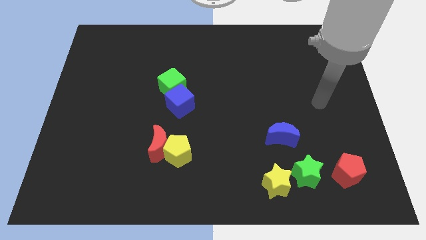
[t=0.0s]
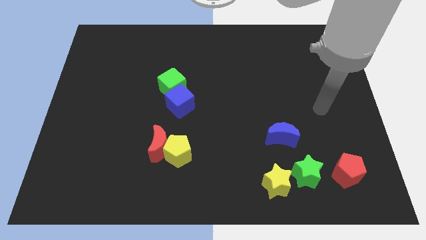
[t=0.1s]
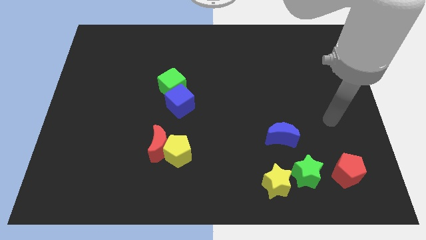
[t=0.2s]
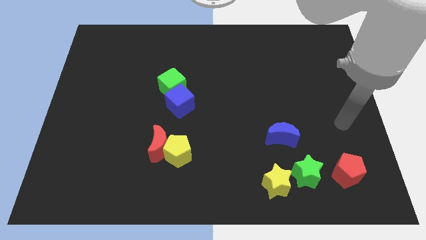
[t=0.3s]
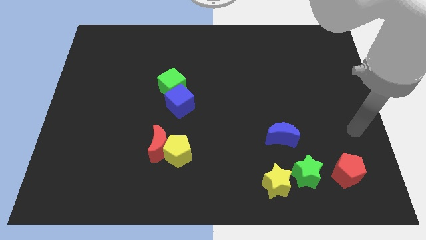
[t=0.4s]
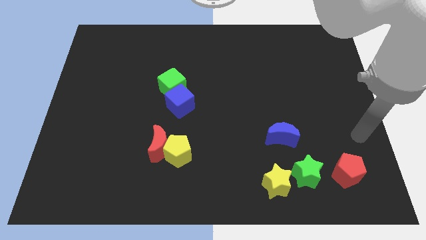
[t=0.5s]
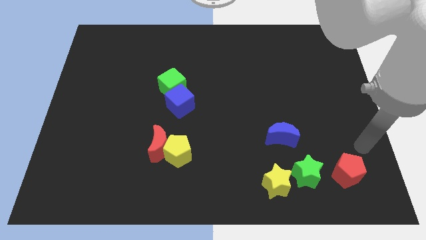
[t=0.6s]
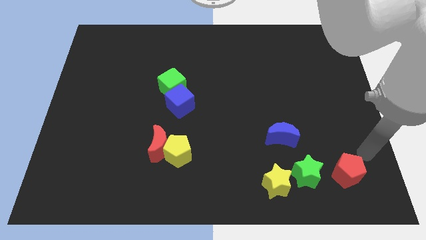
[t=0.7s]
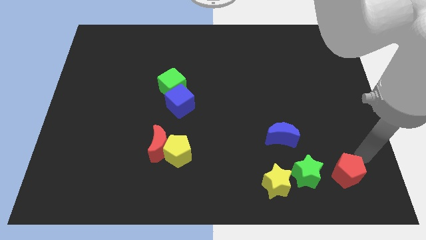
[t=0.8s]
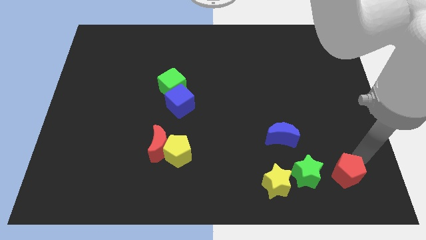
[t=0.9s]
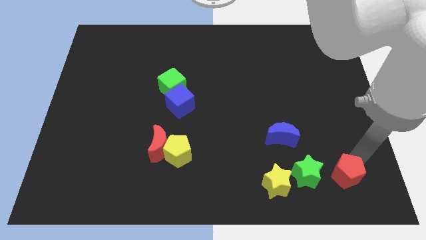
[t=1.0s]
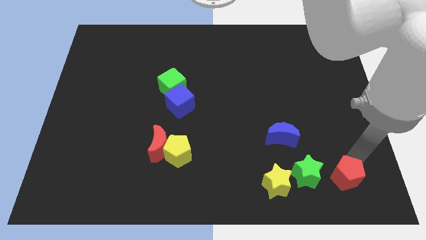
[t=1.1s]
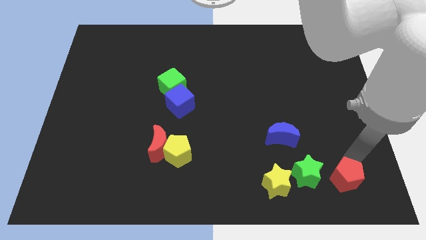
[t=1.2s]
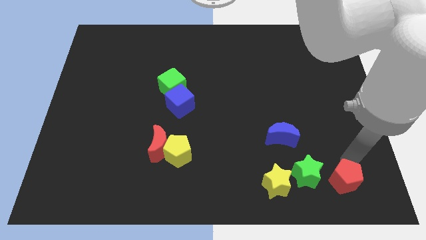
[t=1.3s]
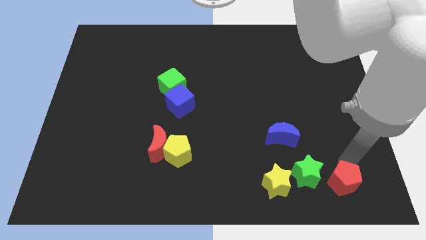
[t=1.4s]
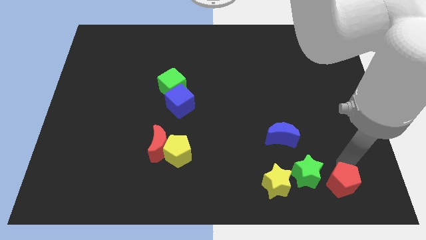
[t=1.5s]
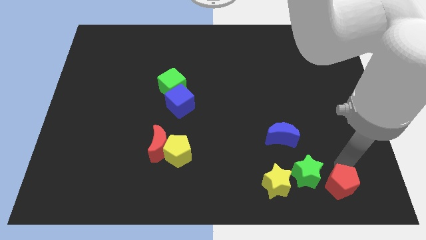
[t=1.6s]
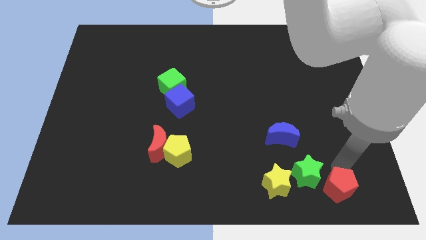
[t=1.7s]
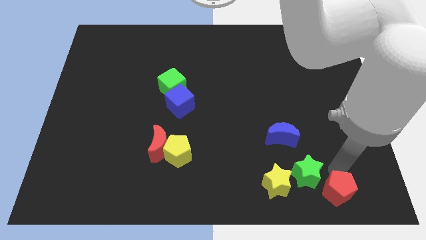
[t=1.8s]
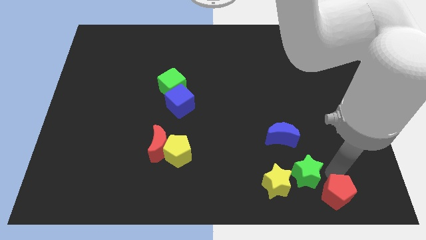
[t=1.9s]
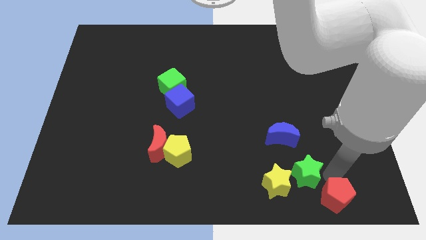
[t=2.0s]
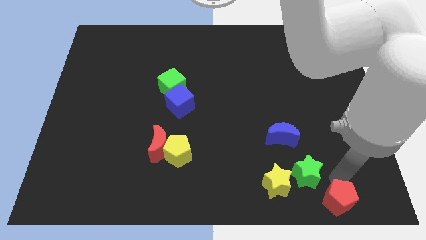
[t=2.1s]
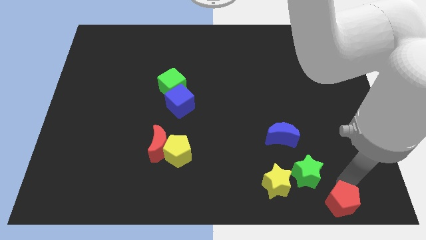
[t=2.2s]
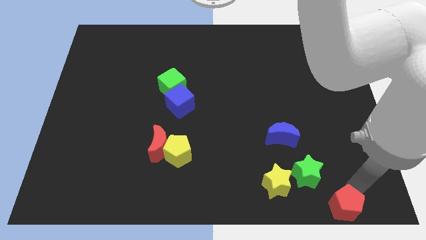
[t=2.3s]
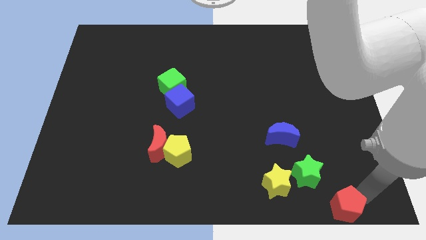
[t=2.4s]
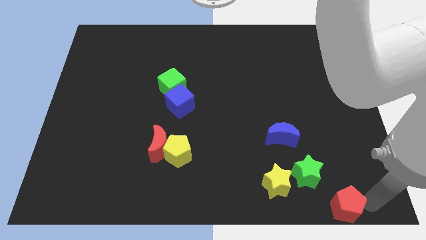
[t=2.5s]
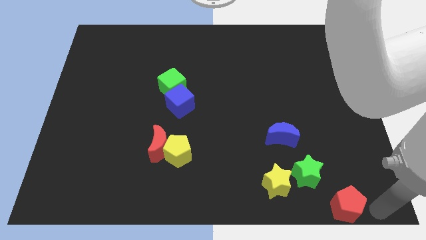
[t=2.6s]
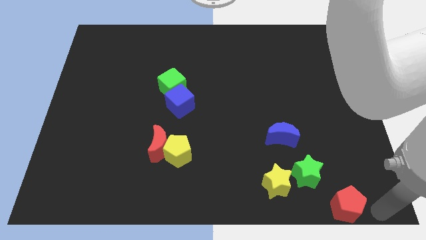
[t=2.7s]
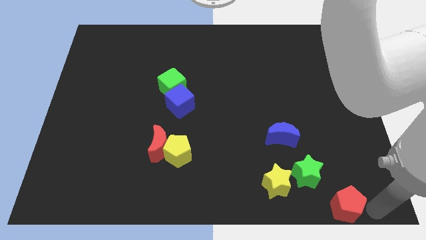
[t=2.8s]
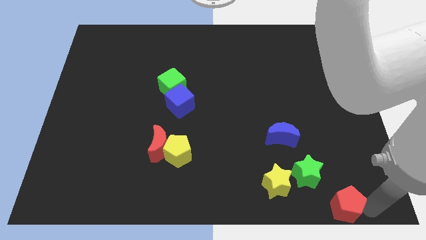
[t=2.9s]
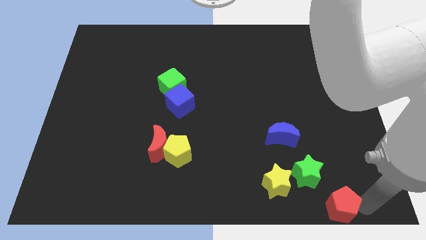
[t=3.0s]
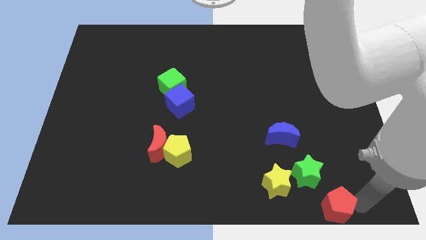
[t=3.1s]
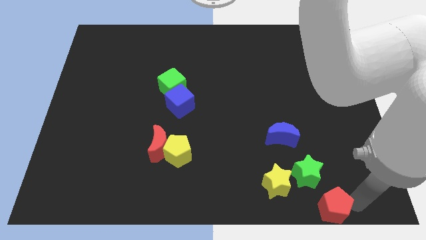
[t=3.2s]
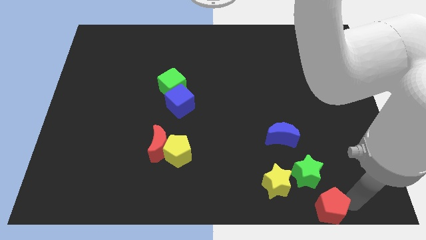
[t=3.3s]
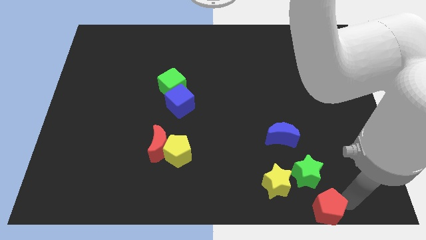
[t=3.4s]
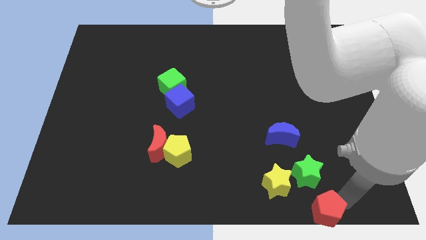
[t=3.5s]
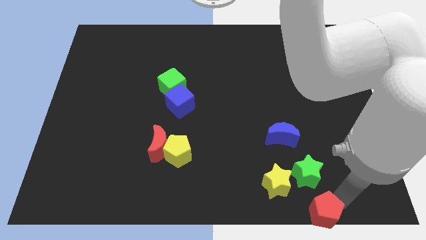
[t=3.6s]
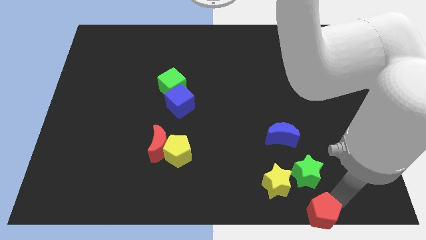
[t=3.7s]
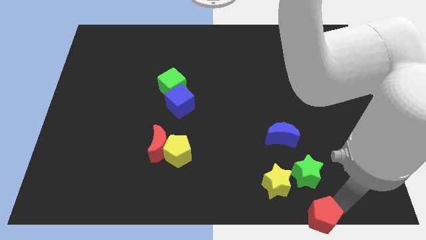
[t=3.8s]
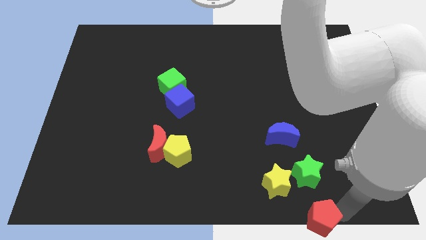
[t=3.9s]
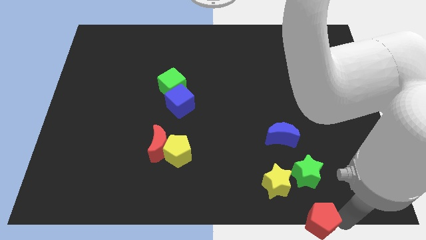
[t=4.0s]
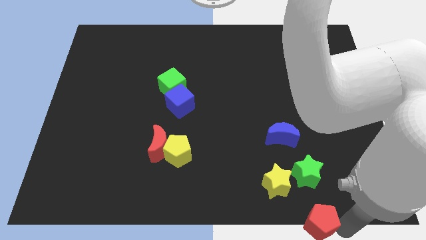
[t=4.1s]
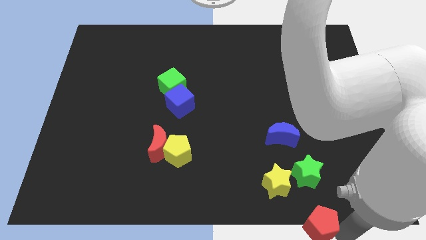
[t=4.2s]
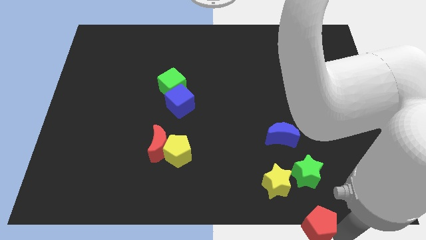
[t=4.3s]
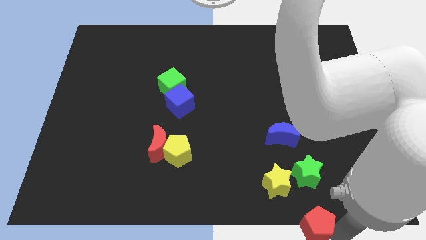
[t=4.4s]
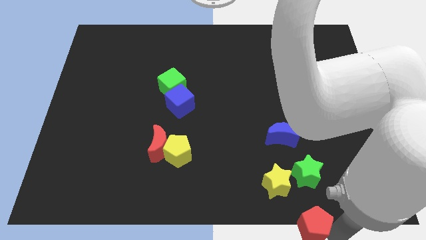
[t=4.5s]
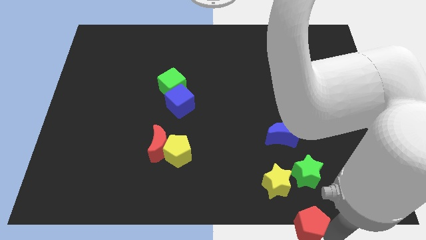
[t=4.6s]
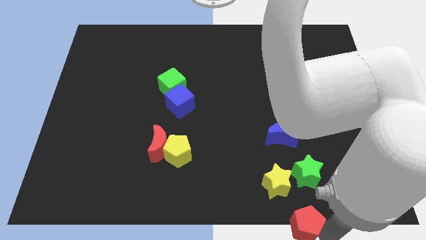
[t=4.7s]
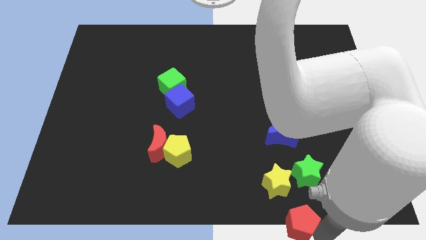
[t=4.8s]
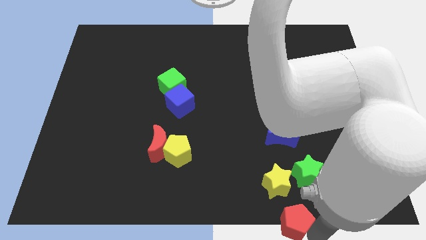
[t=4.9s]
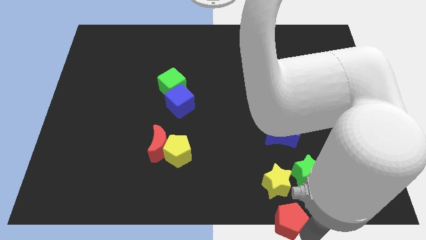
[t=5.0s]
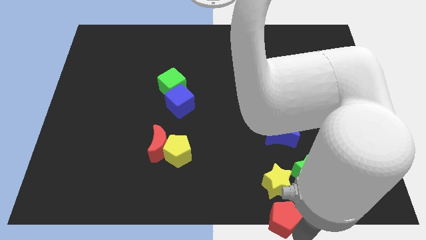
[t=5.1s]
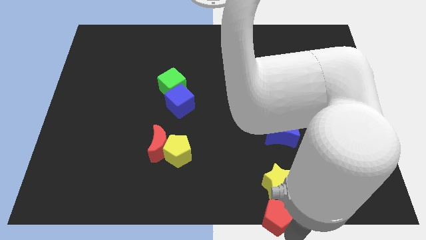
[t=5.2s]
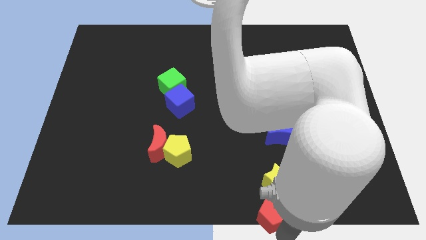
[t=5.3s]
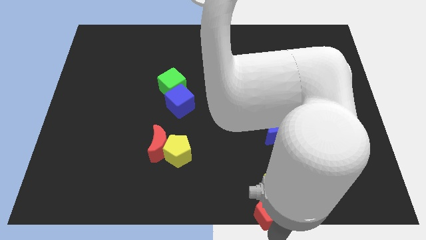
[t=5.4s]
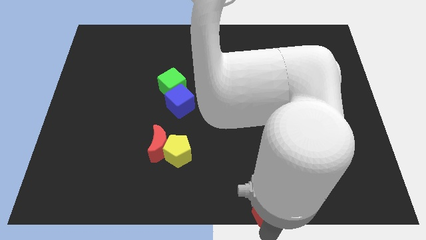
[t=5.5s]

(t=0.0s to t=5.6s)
move the red pentagon next to the yellow star

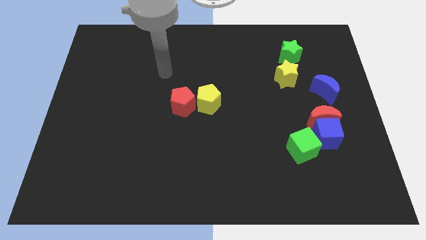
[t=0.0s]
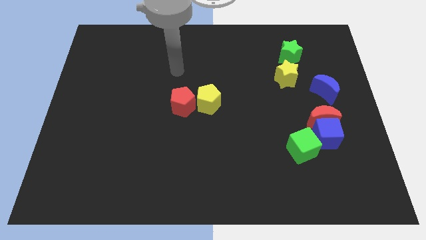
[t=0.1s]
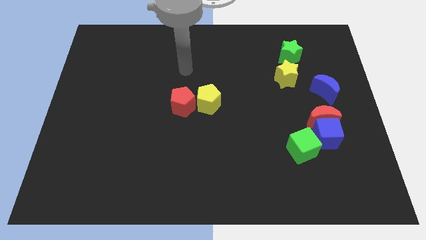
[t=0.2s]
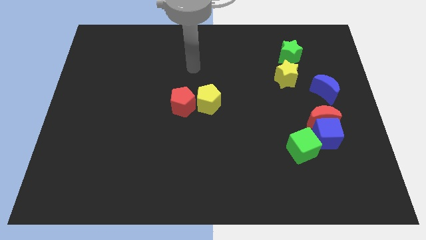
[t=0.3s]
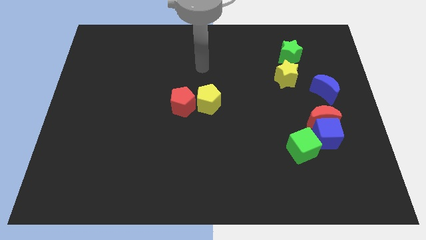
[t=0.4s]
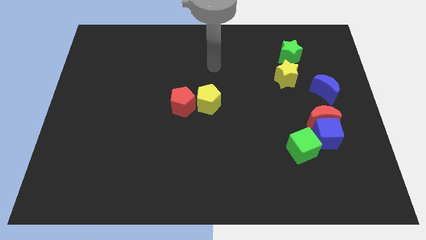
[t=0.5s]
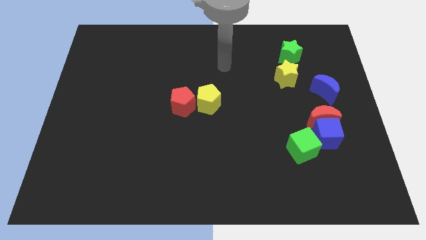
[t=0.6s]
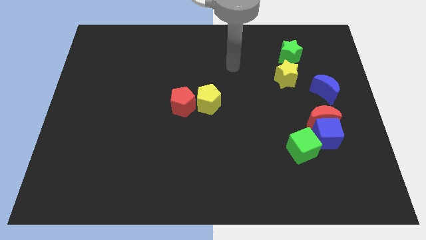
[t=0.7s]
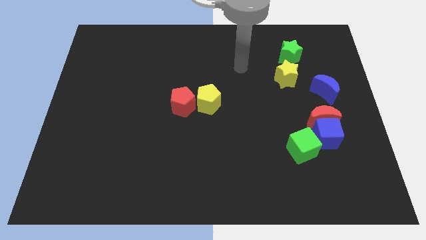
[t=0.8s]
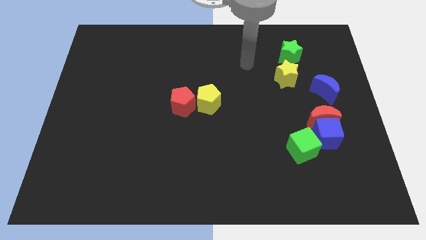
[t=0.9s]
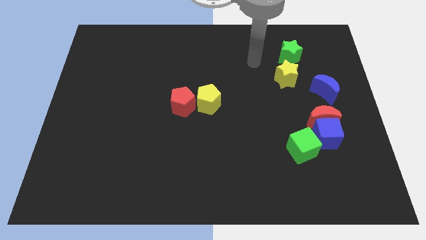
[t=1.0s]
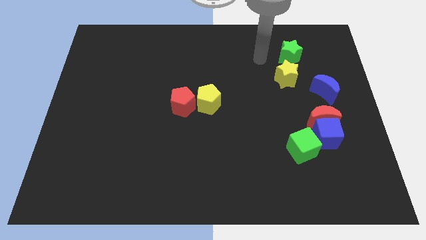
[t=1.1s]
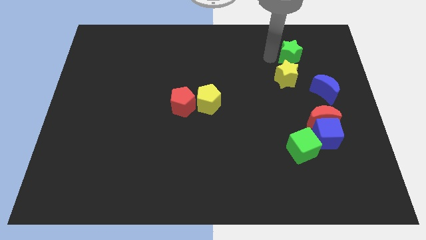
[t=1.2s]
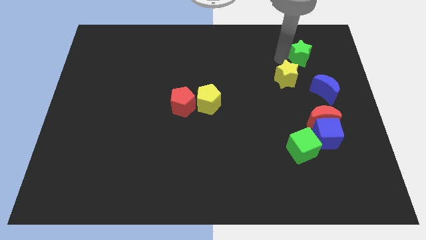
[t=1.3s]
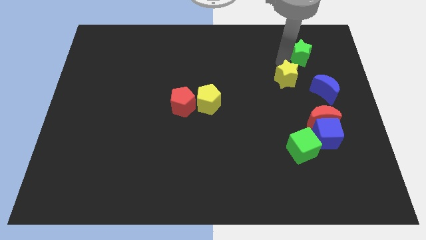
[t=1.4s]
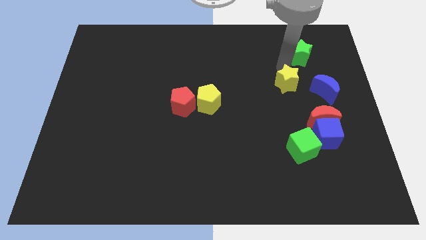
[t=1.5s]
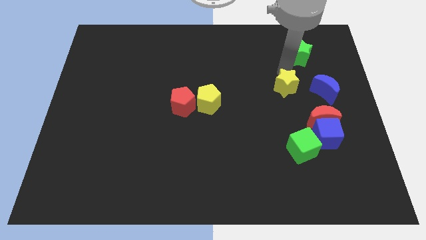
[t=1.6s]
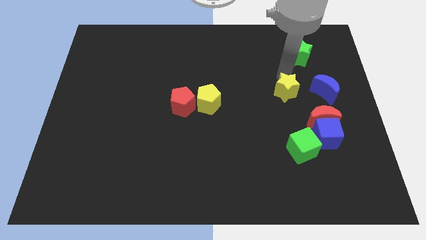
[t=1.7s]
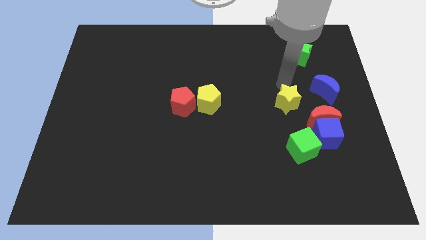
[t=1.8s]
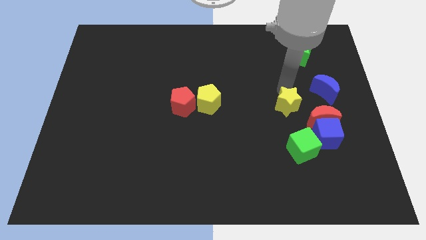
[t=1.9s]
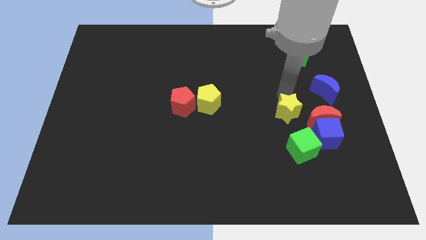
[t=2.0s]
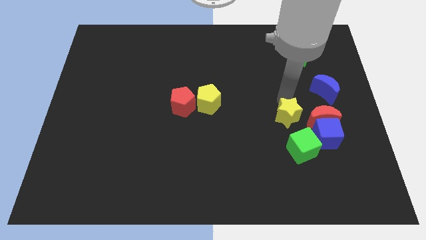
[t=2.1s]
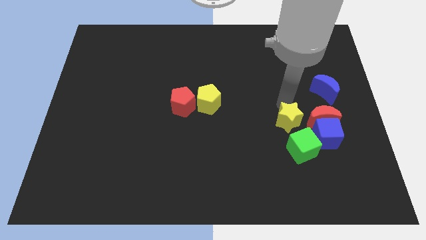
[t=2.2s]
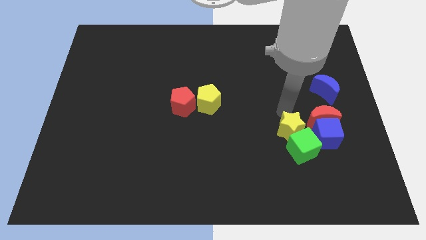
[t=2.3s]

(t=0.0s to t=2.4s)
slide the yellow star to the green cube
